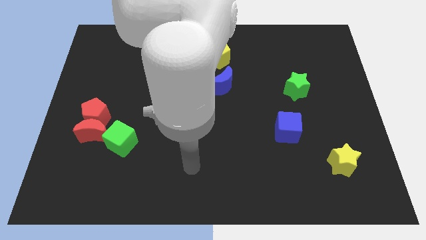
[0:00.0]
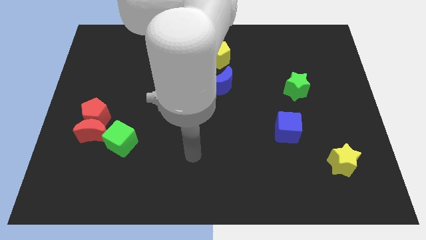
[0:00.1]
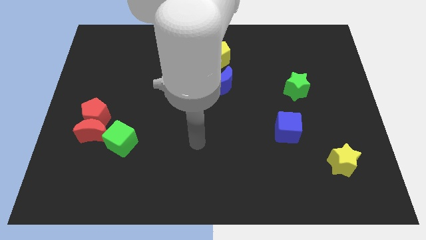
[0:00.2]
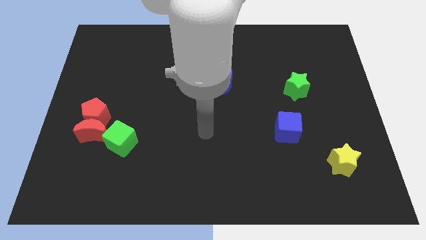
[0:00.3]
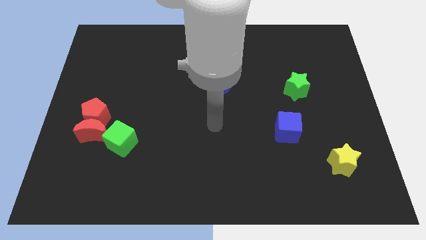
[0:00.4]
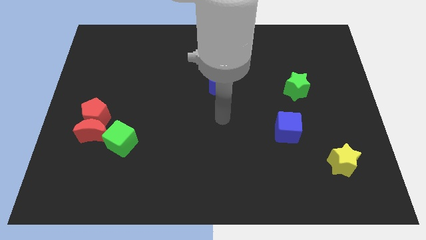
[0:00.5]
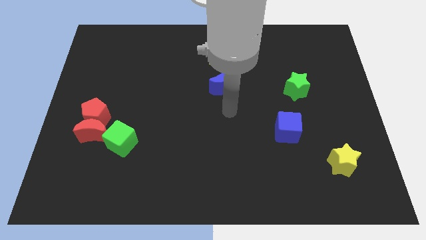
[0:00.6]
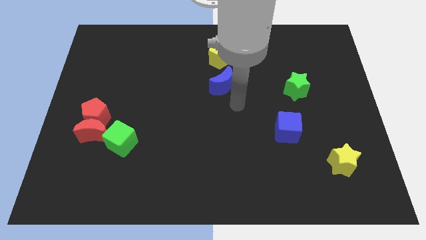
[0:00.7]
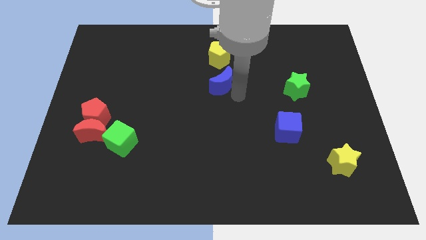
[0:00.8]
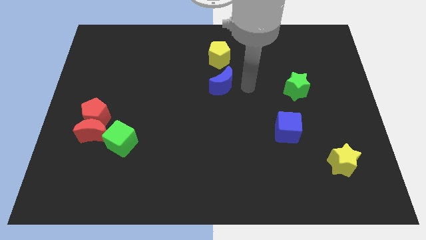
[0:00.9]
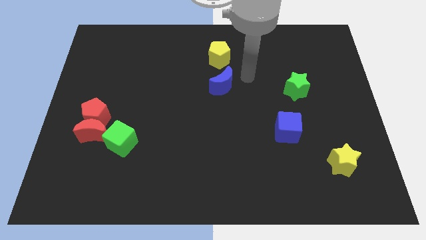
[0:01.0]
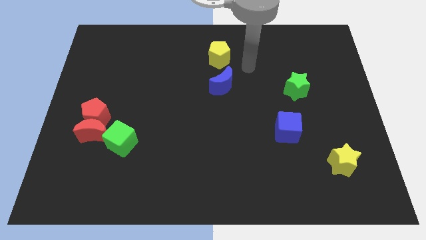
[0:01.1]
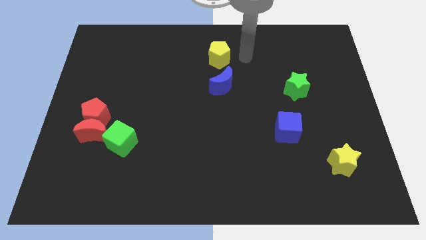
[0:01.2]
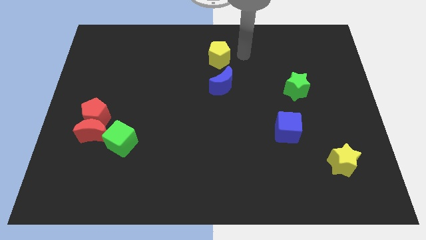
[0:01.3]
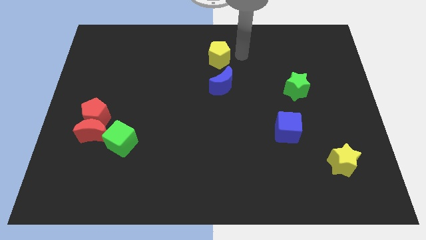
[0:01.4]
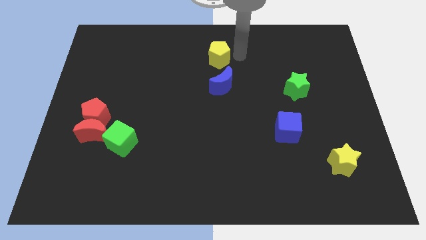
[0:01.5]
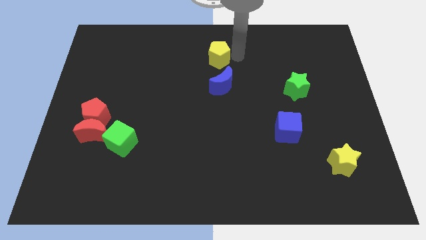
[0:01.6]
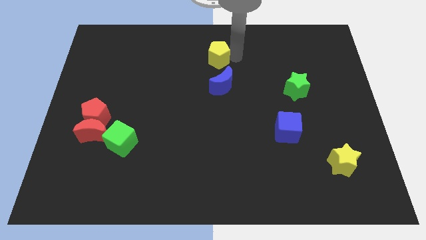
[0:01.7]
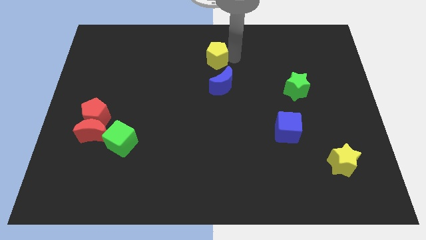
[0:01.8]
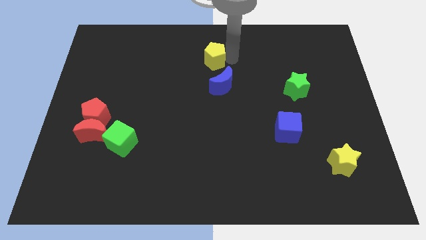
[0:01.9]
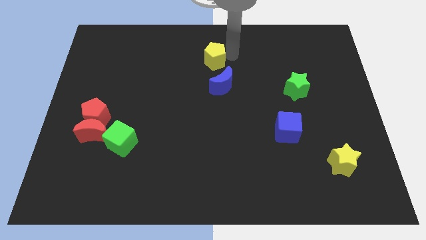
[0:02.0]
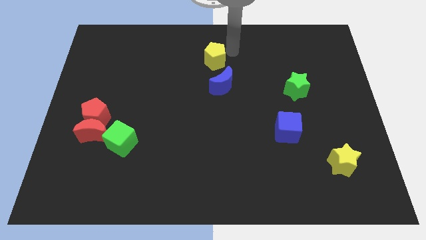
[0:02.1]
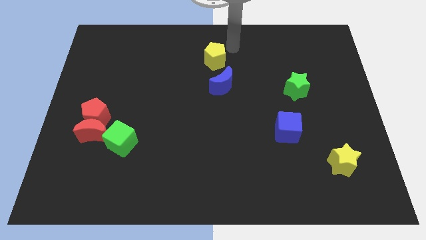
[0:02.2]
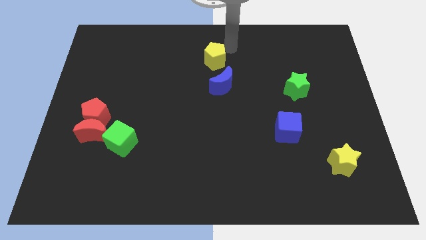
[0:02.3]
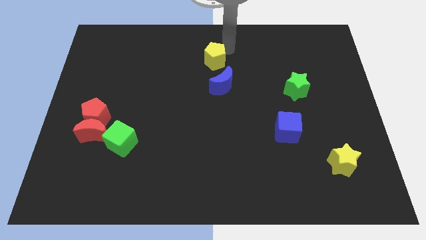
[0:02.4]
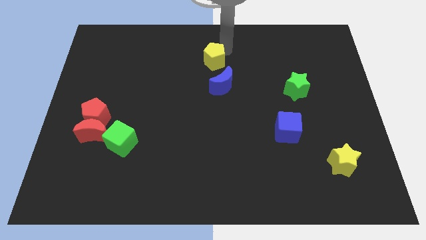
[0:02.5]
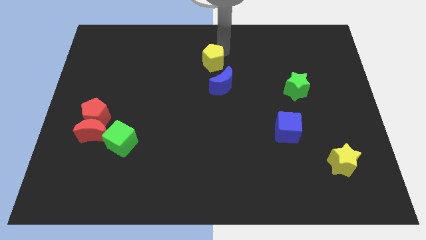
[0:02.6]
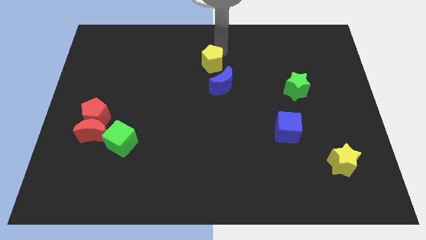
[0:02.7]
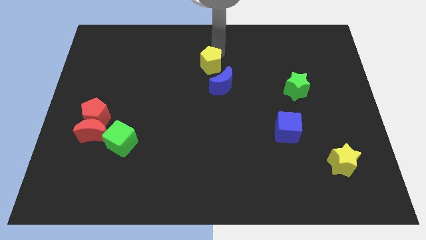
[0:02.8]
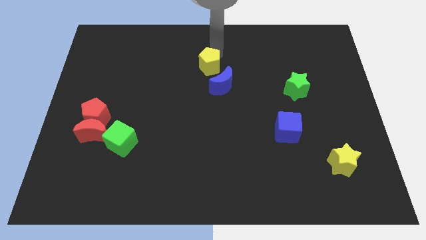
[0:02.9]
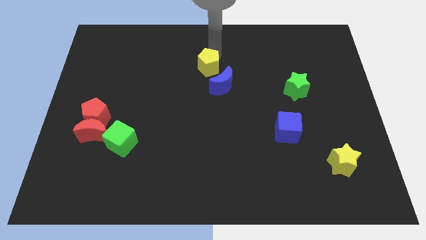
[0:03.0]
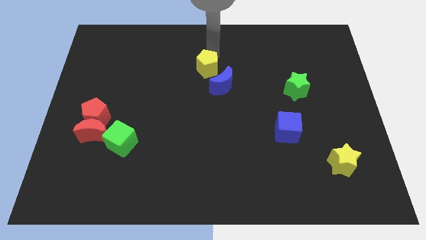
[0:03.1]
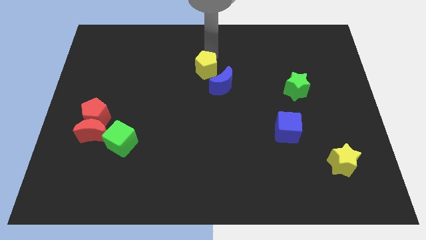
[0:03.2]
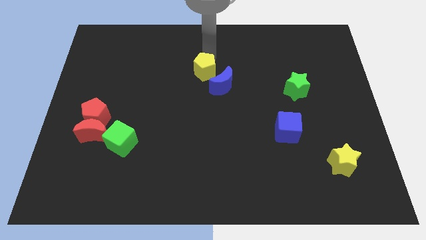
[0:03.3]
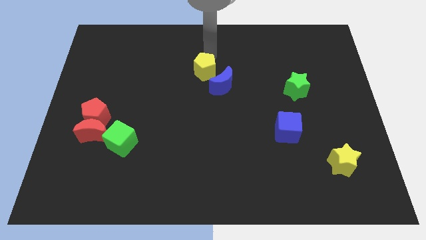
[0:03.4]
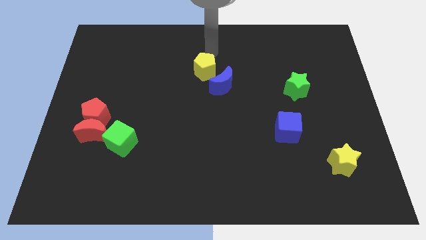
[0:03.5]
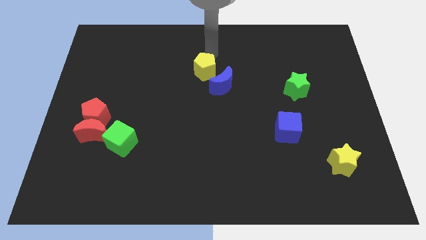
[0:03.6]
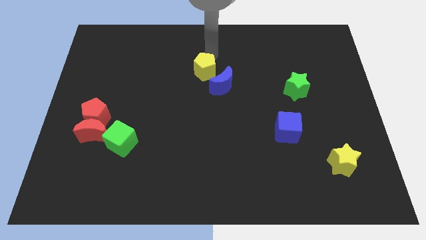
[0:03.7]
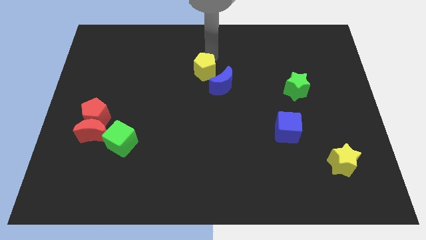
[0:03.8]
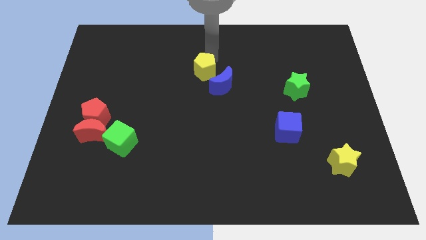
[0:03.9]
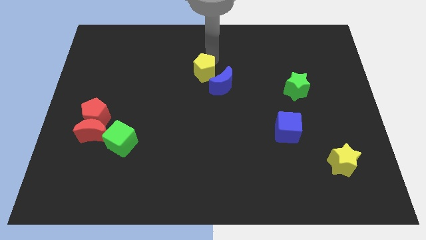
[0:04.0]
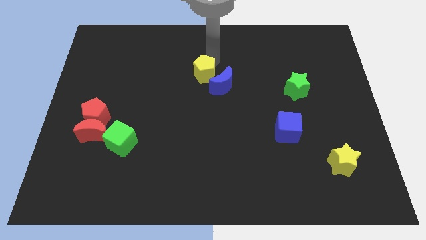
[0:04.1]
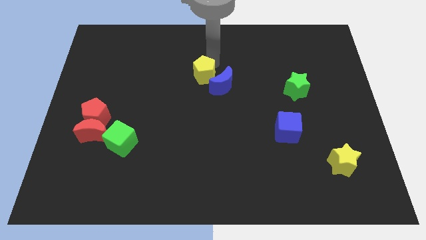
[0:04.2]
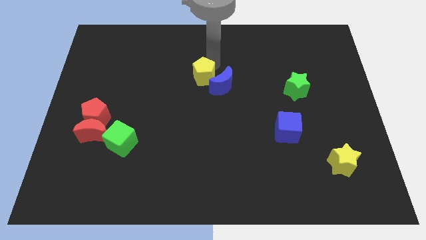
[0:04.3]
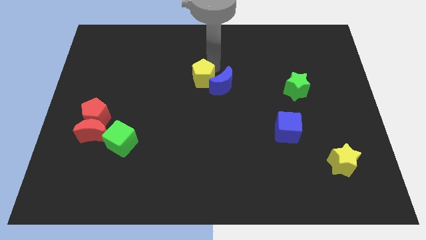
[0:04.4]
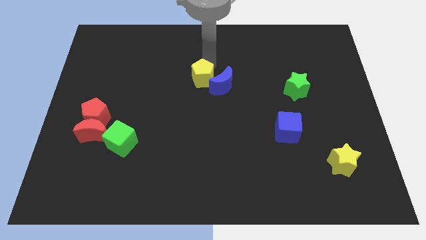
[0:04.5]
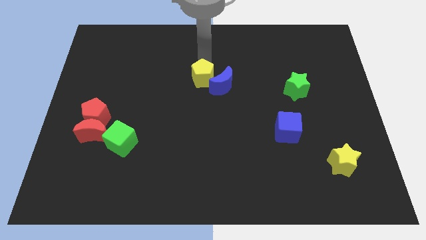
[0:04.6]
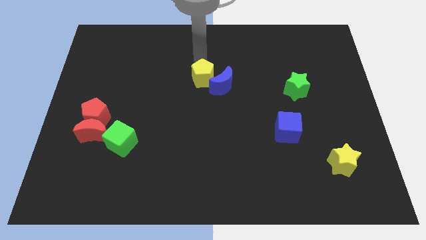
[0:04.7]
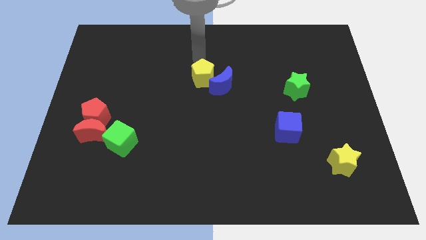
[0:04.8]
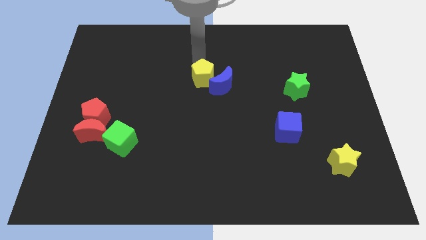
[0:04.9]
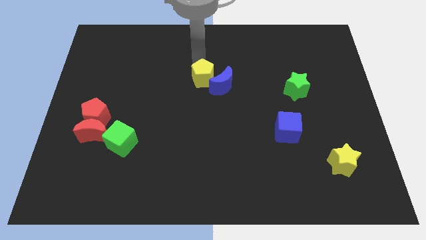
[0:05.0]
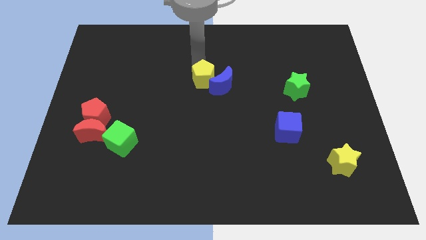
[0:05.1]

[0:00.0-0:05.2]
move the yellow pentagon a little bit downwards

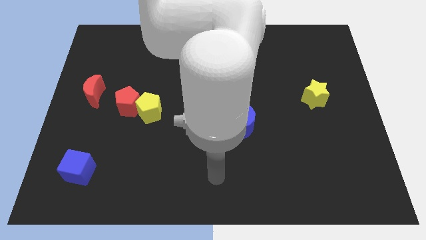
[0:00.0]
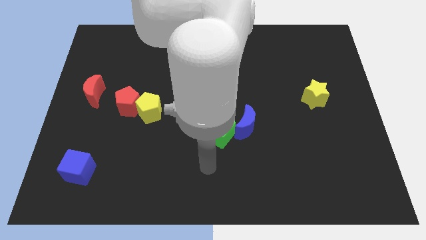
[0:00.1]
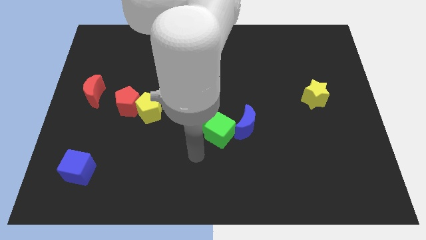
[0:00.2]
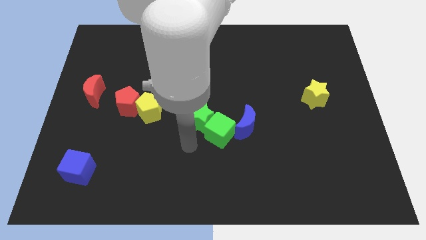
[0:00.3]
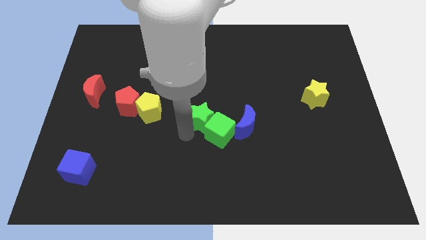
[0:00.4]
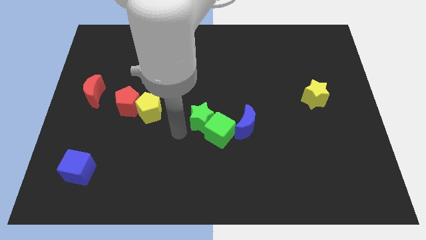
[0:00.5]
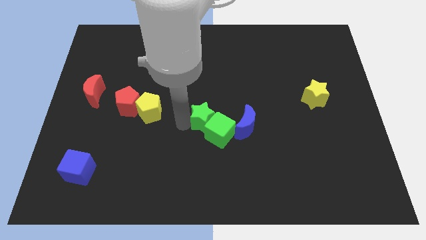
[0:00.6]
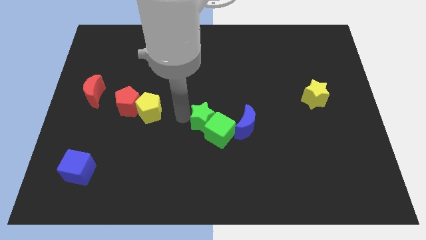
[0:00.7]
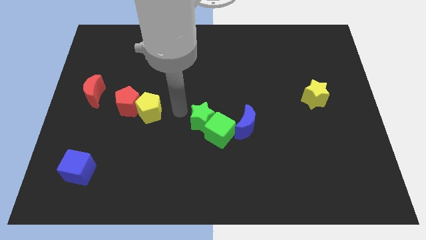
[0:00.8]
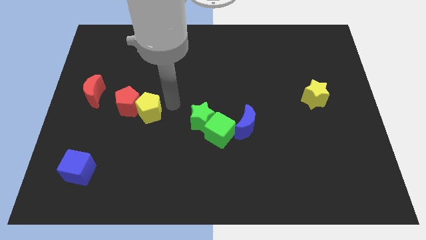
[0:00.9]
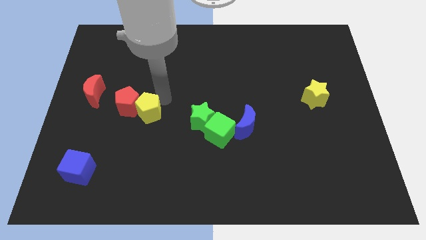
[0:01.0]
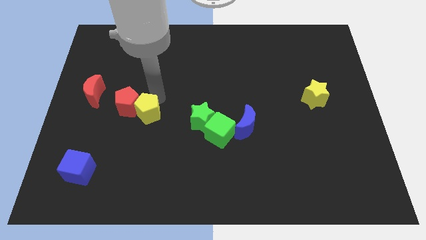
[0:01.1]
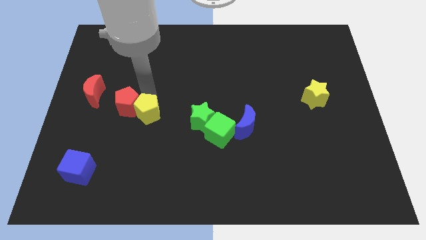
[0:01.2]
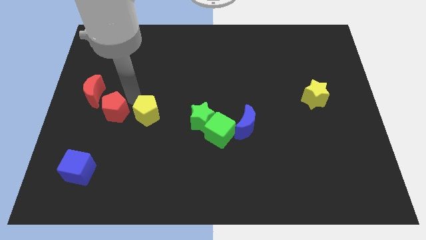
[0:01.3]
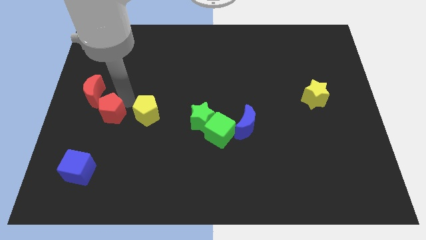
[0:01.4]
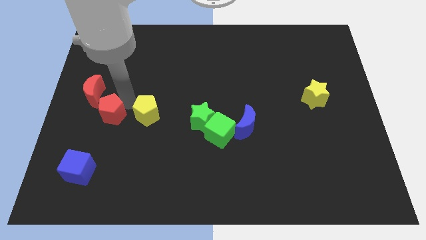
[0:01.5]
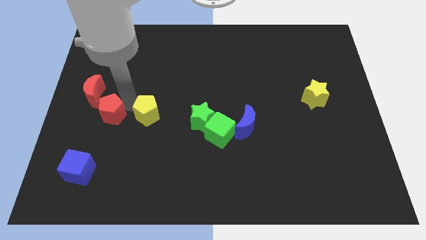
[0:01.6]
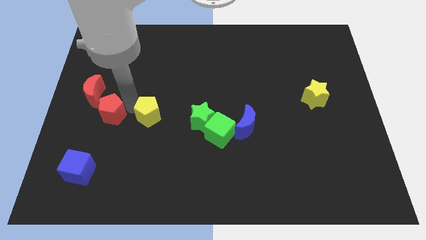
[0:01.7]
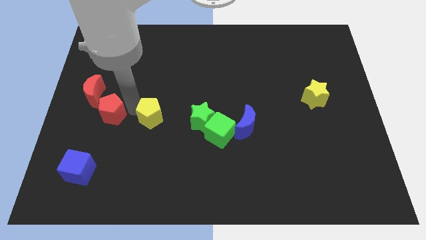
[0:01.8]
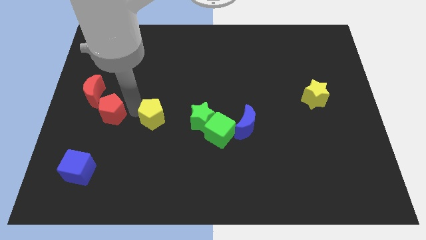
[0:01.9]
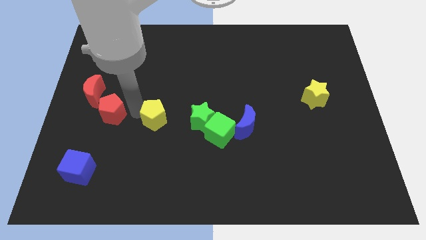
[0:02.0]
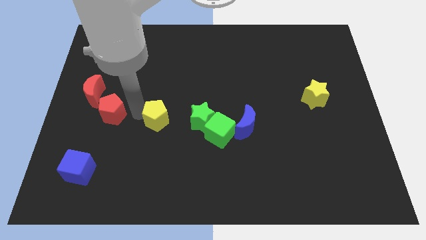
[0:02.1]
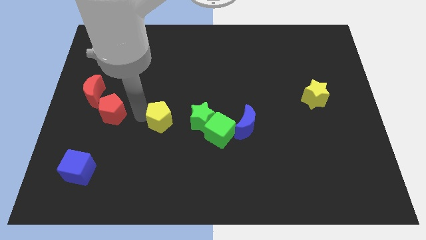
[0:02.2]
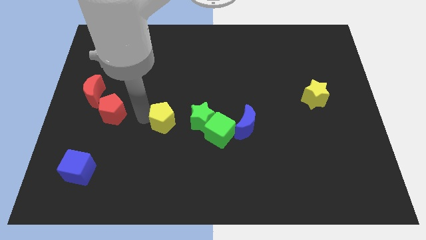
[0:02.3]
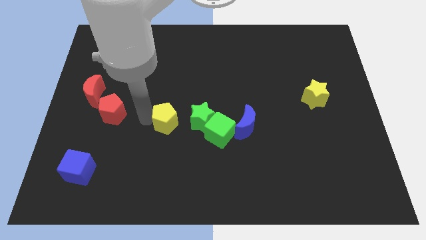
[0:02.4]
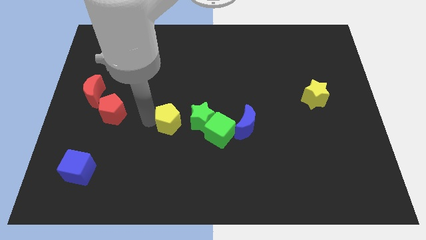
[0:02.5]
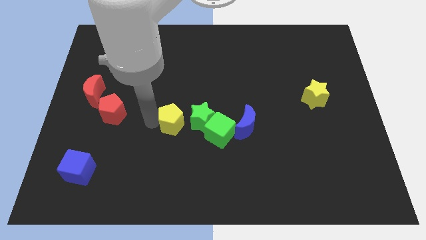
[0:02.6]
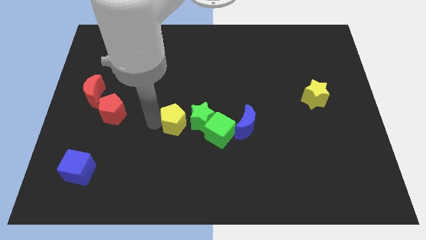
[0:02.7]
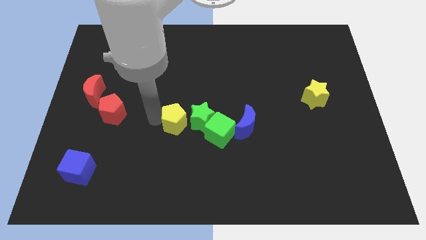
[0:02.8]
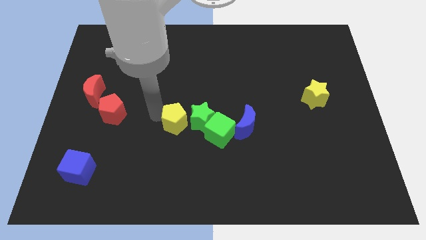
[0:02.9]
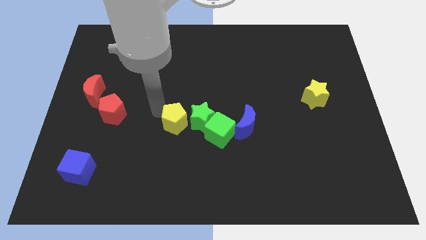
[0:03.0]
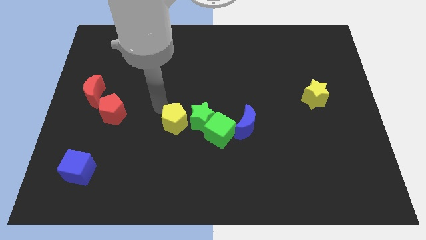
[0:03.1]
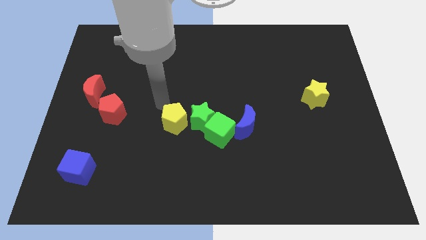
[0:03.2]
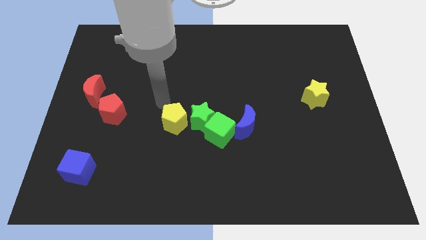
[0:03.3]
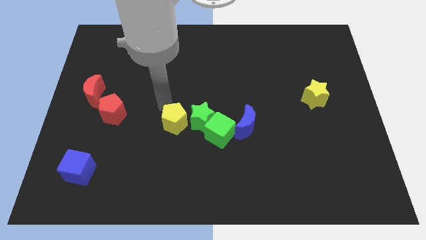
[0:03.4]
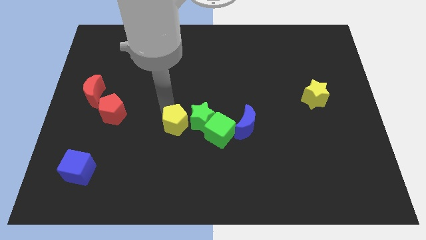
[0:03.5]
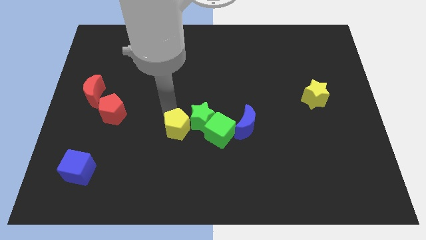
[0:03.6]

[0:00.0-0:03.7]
push the yellow pentagon down and then right a little
